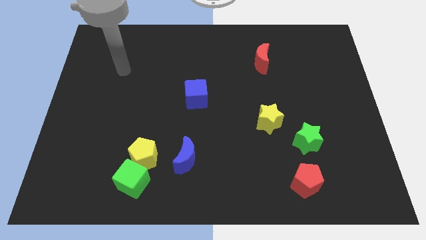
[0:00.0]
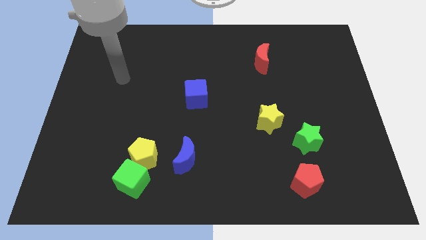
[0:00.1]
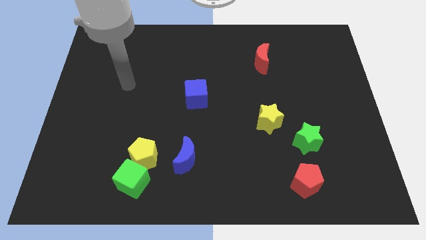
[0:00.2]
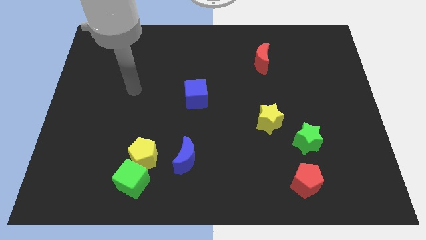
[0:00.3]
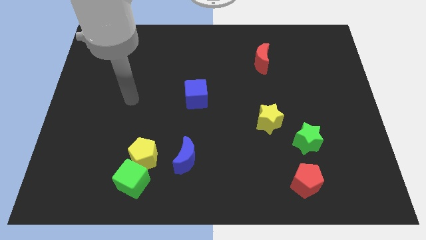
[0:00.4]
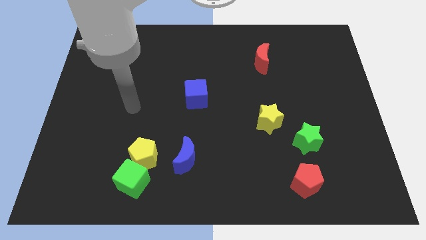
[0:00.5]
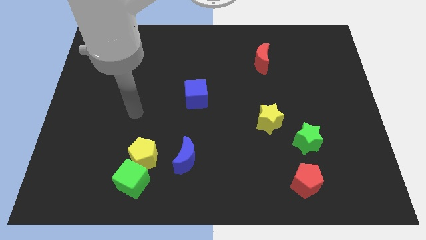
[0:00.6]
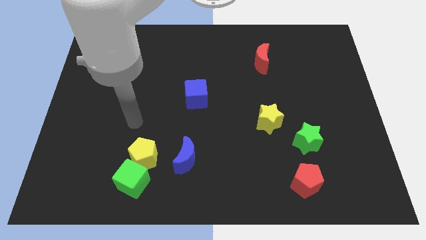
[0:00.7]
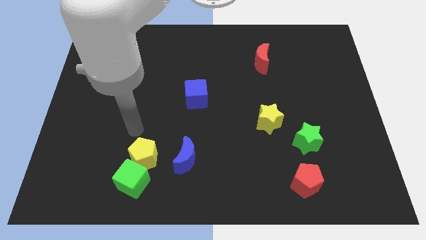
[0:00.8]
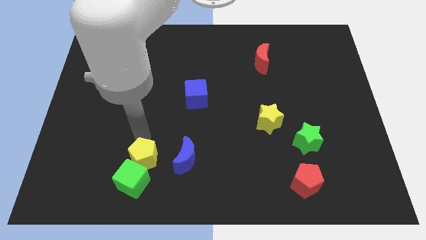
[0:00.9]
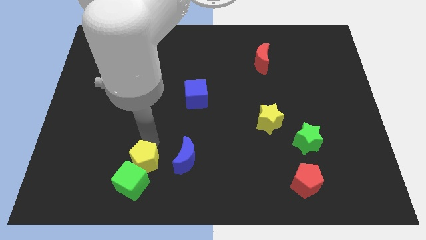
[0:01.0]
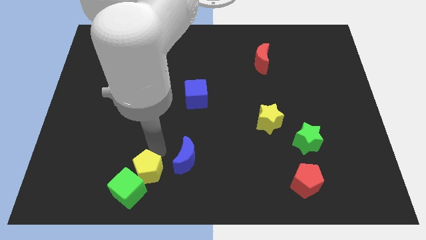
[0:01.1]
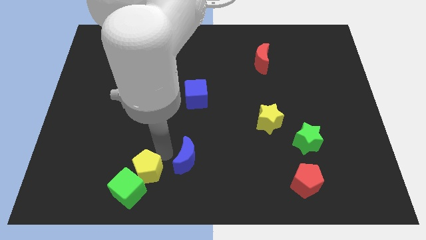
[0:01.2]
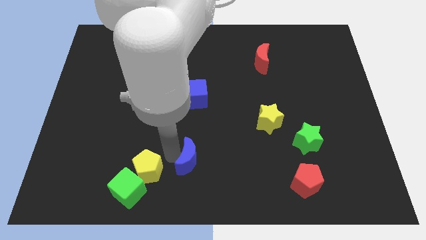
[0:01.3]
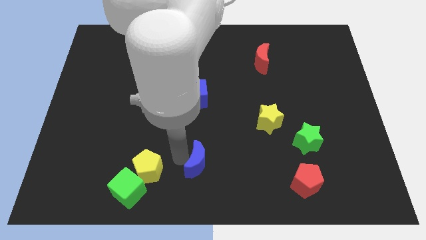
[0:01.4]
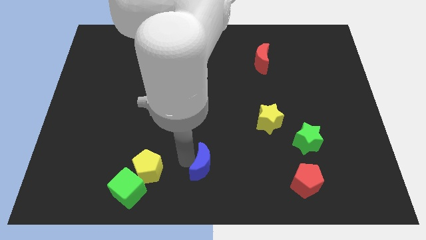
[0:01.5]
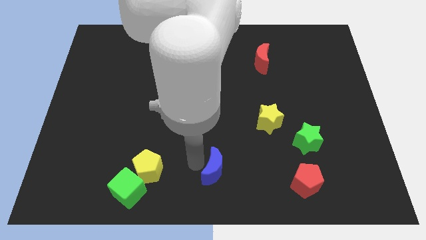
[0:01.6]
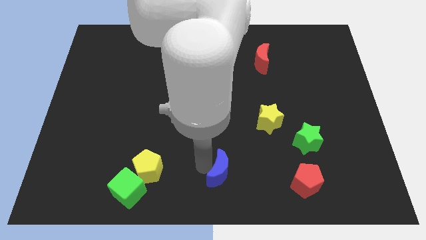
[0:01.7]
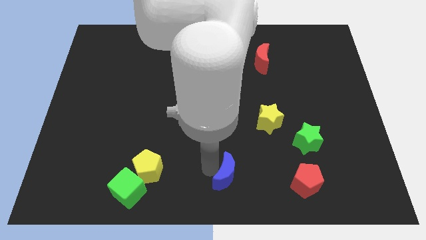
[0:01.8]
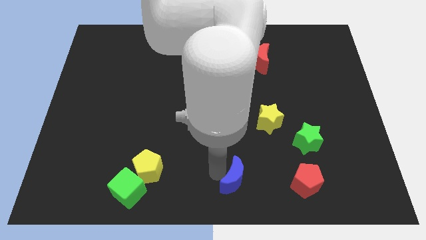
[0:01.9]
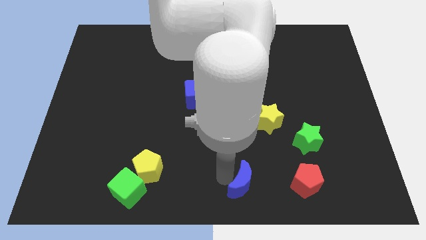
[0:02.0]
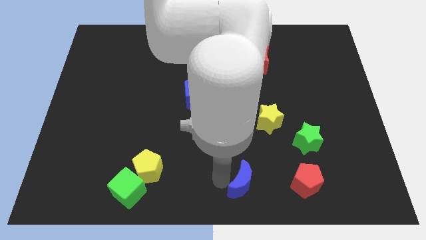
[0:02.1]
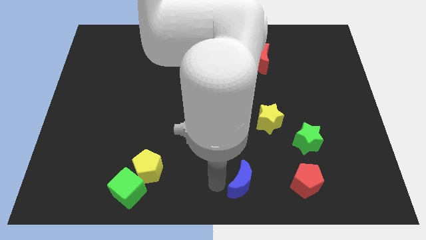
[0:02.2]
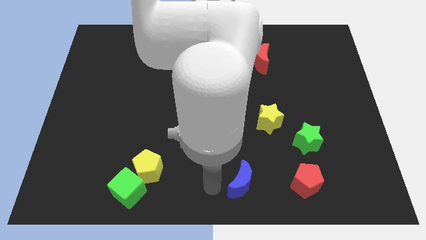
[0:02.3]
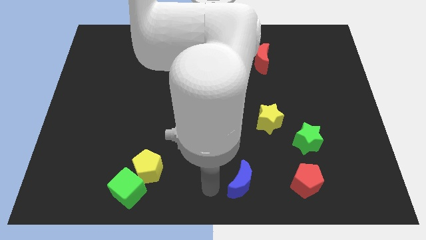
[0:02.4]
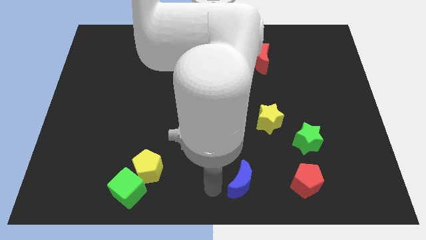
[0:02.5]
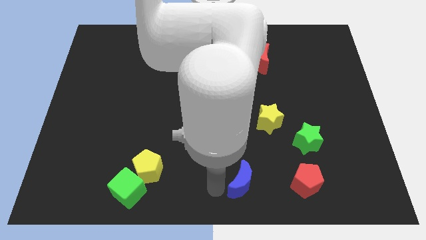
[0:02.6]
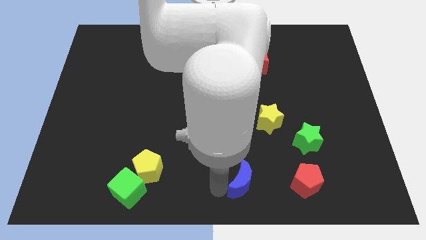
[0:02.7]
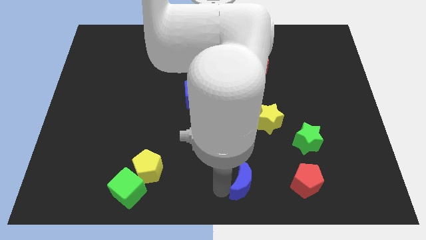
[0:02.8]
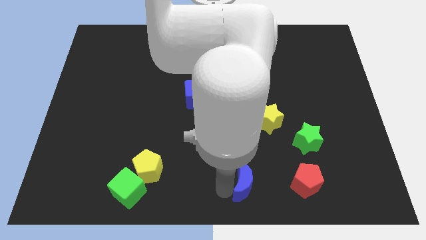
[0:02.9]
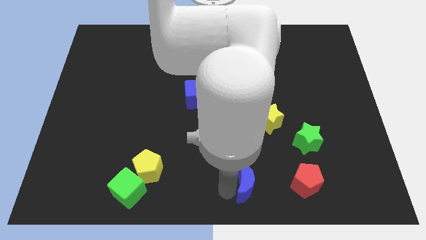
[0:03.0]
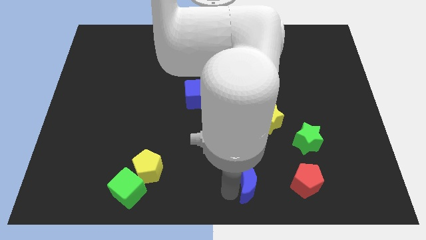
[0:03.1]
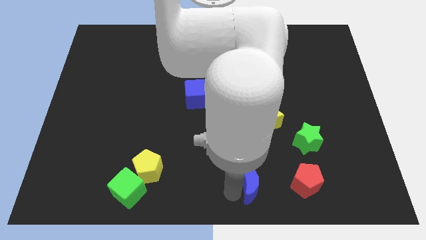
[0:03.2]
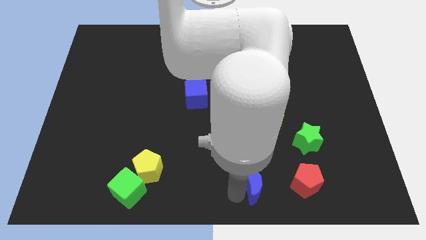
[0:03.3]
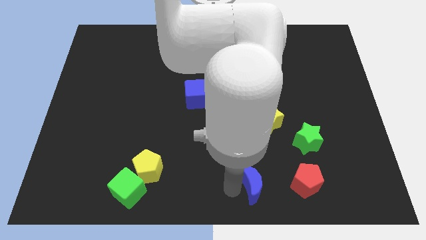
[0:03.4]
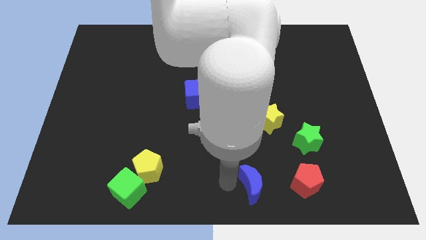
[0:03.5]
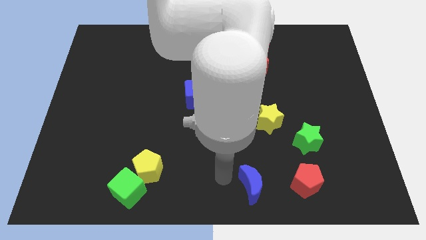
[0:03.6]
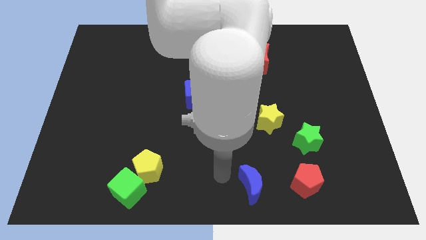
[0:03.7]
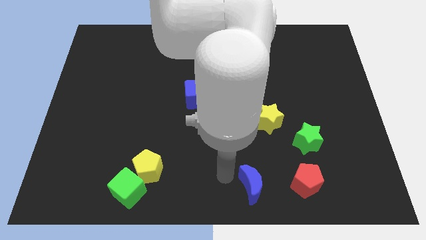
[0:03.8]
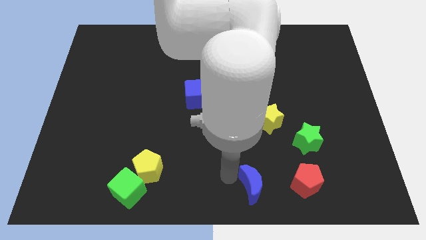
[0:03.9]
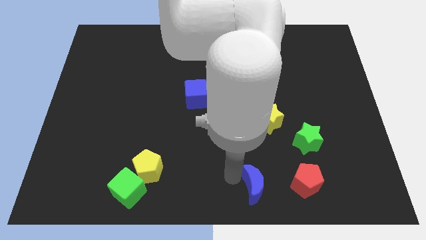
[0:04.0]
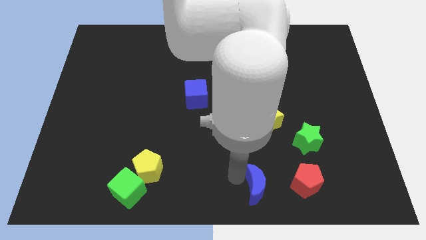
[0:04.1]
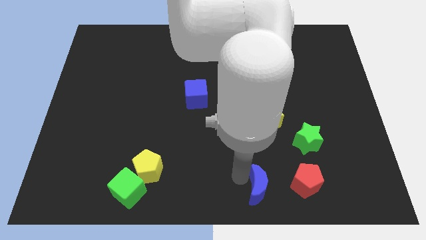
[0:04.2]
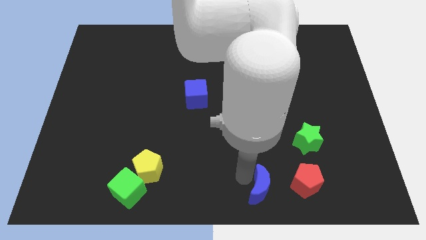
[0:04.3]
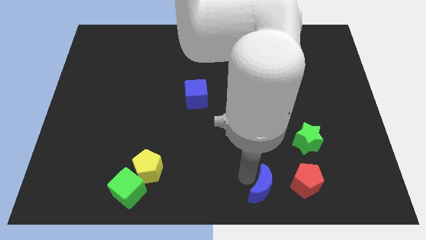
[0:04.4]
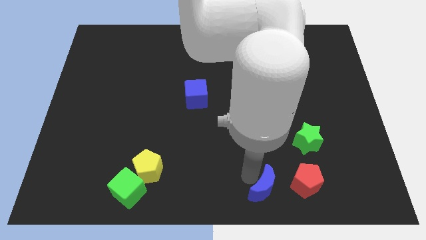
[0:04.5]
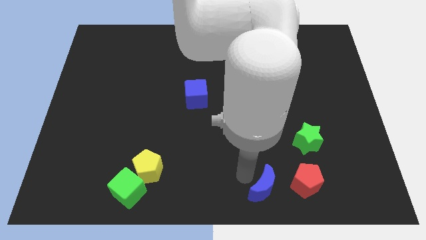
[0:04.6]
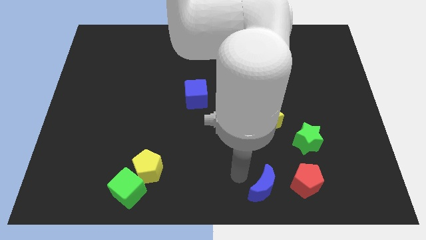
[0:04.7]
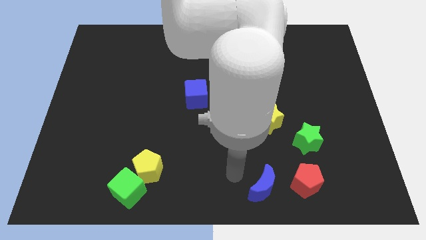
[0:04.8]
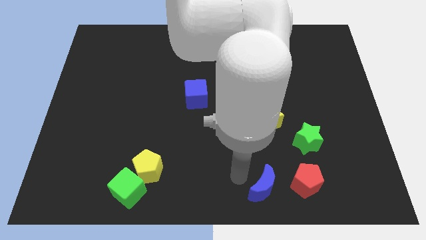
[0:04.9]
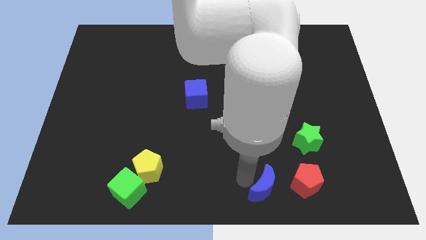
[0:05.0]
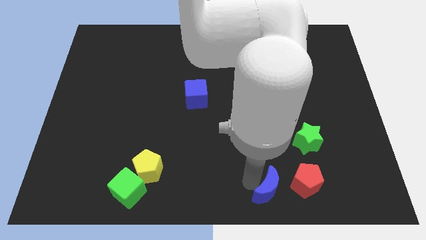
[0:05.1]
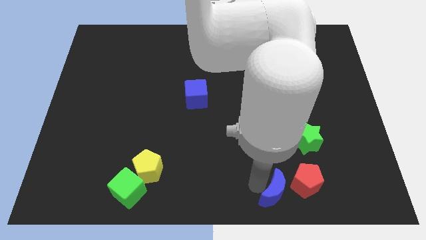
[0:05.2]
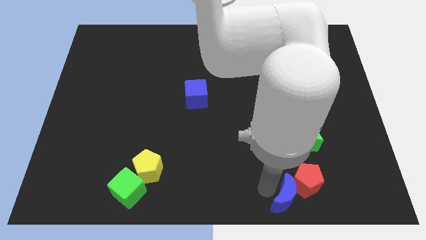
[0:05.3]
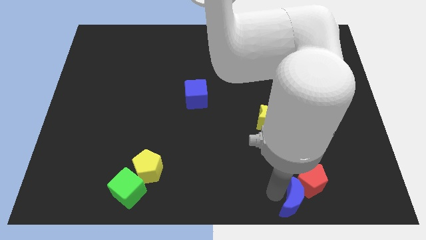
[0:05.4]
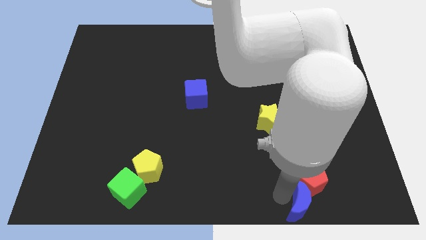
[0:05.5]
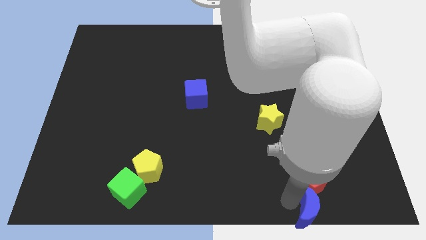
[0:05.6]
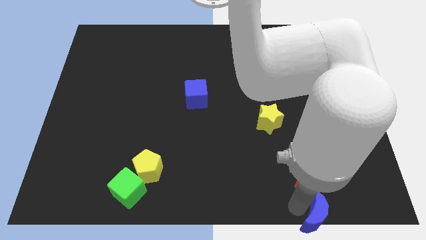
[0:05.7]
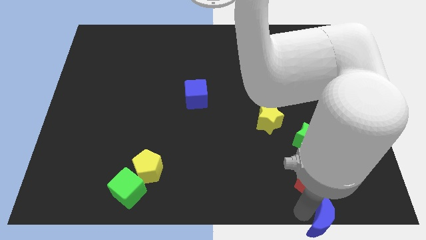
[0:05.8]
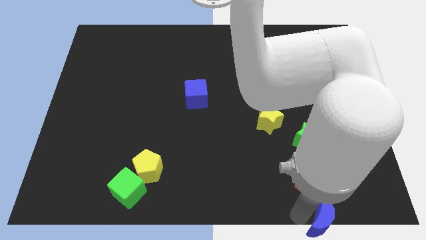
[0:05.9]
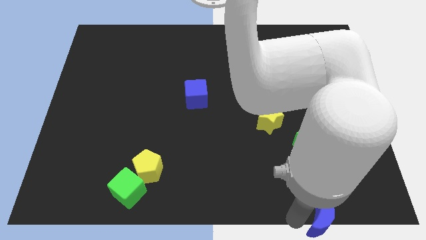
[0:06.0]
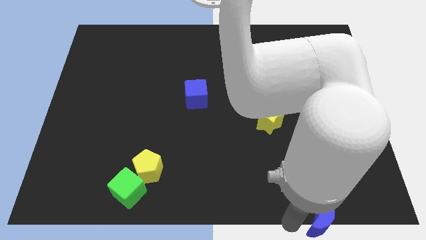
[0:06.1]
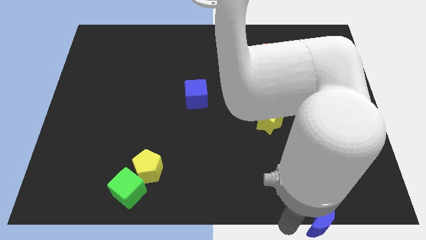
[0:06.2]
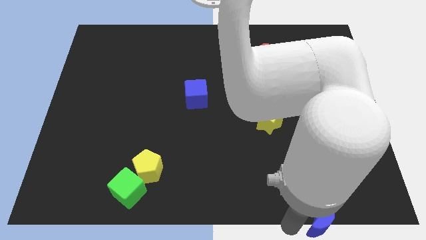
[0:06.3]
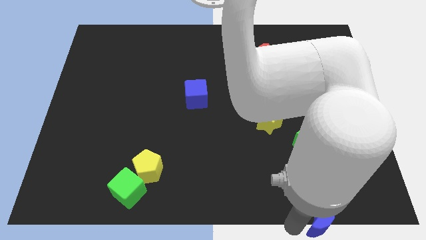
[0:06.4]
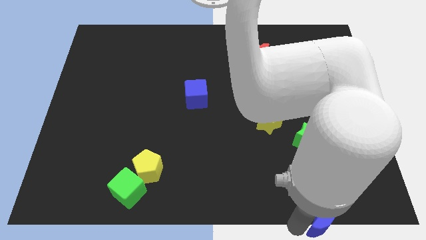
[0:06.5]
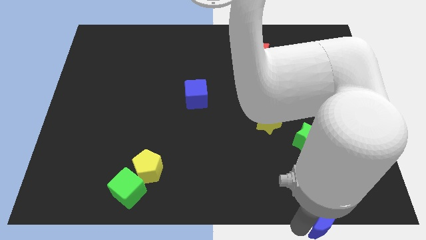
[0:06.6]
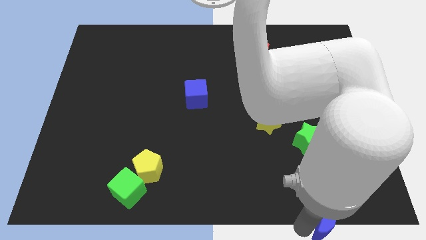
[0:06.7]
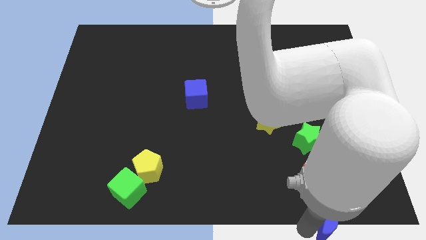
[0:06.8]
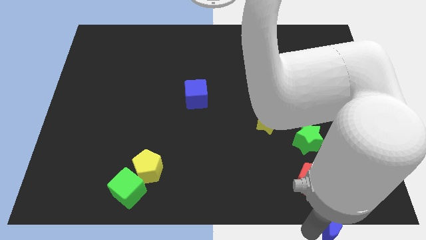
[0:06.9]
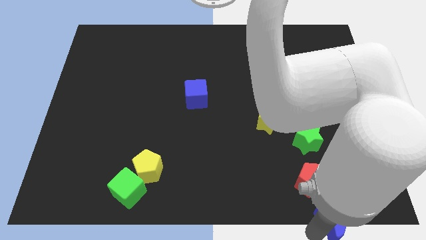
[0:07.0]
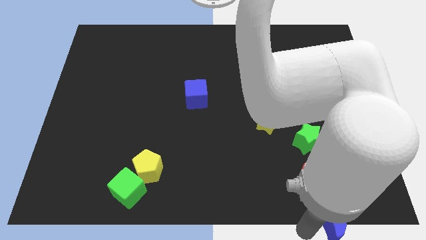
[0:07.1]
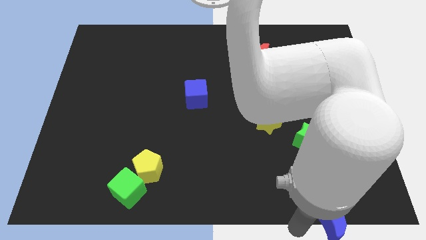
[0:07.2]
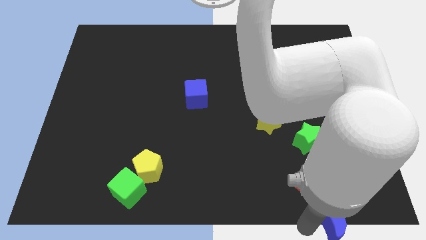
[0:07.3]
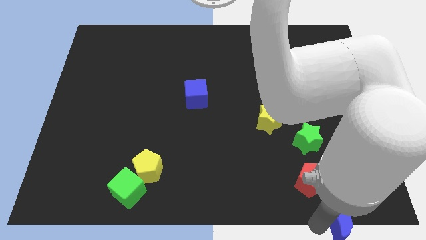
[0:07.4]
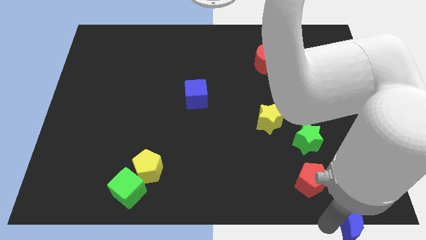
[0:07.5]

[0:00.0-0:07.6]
push the blue moon to the bottom right
